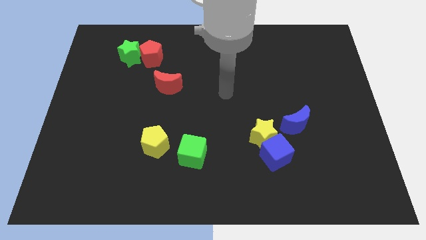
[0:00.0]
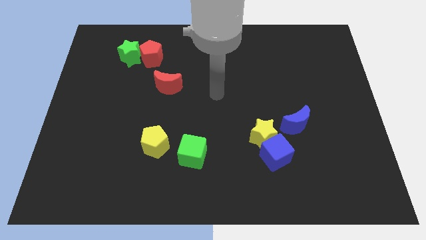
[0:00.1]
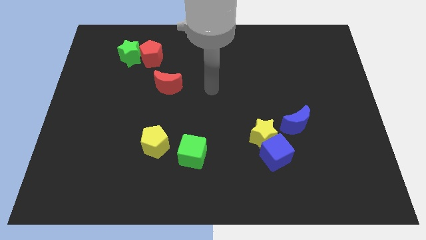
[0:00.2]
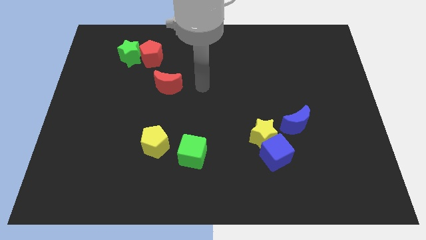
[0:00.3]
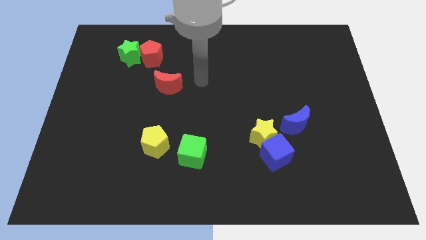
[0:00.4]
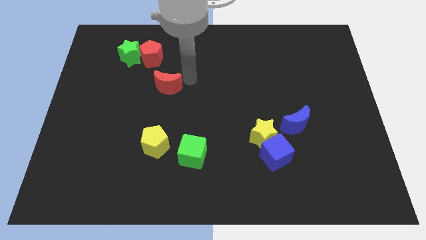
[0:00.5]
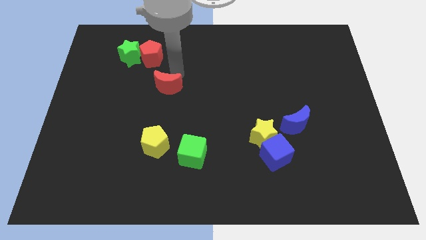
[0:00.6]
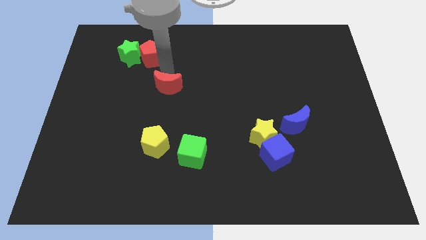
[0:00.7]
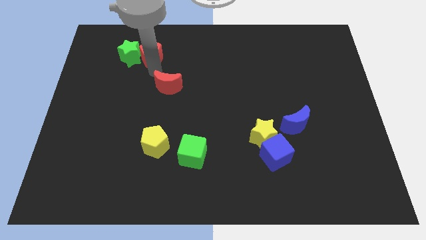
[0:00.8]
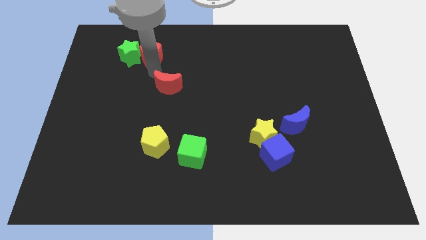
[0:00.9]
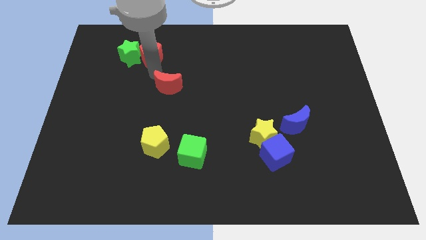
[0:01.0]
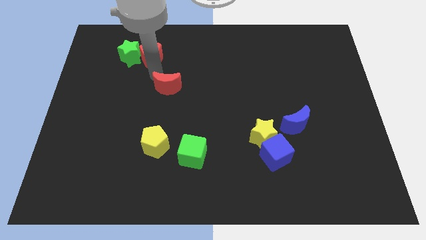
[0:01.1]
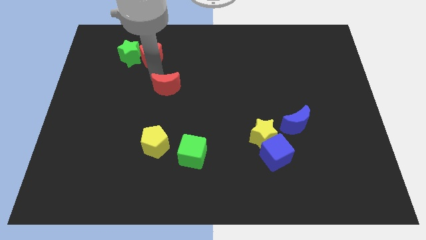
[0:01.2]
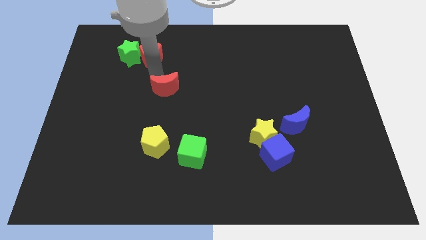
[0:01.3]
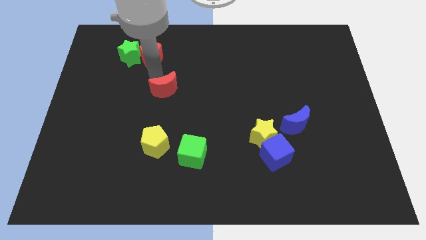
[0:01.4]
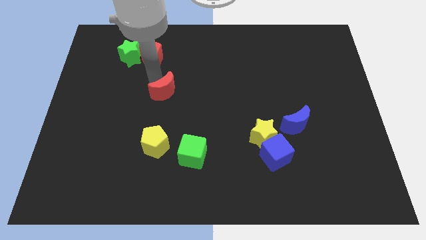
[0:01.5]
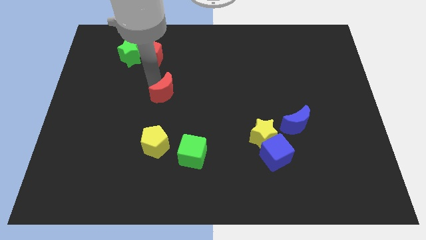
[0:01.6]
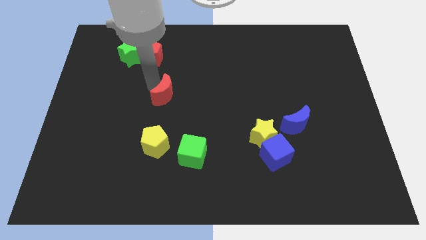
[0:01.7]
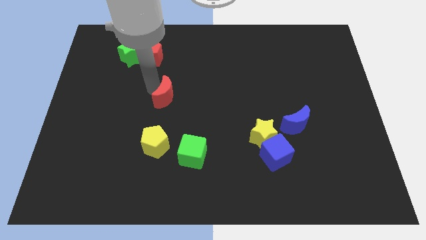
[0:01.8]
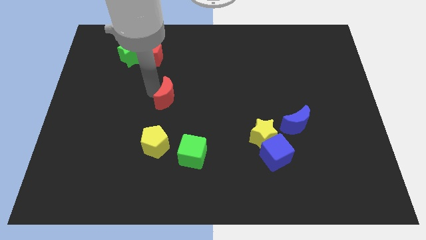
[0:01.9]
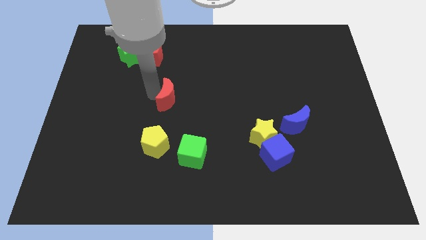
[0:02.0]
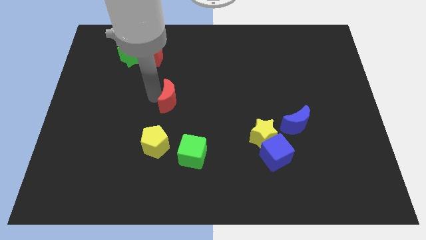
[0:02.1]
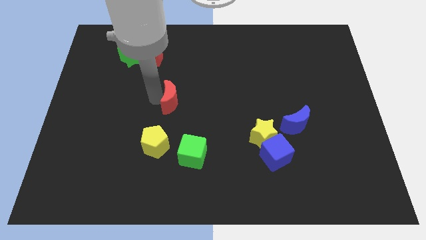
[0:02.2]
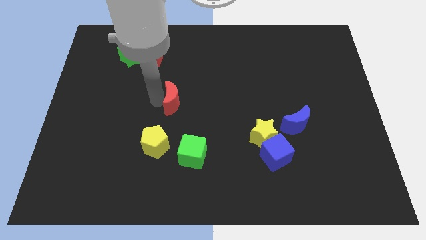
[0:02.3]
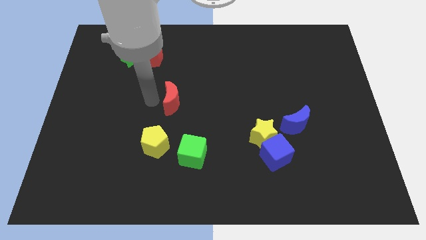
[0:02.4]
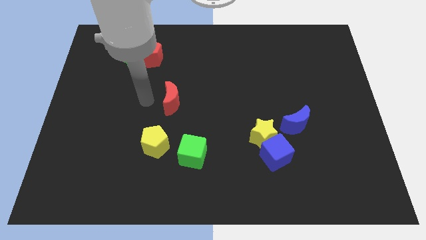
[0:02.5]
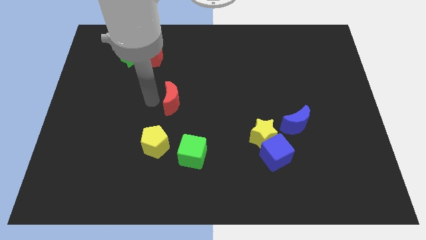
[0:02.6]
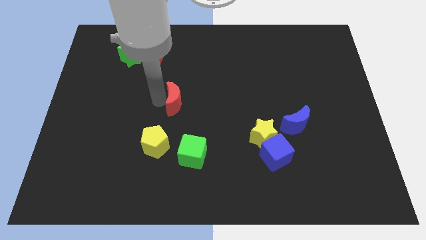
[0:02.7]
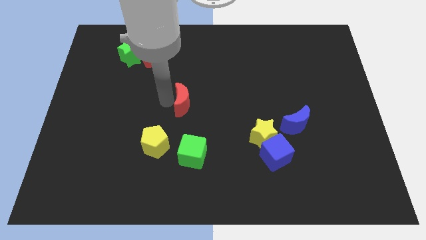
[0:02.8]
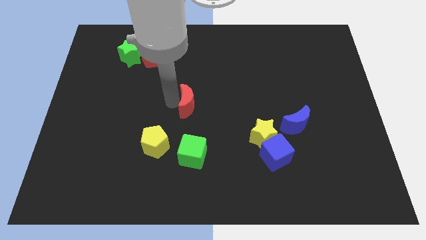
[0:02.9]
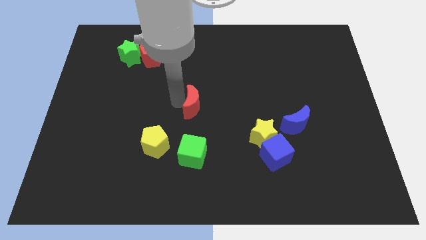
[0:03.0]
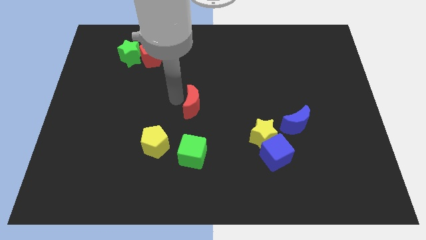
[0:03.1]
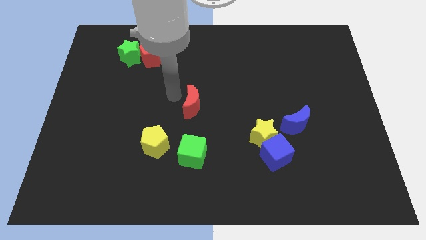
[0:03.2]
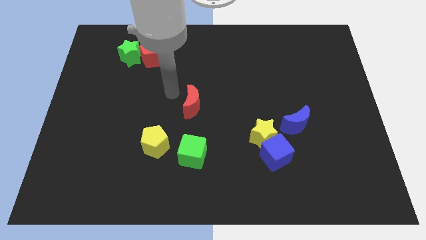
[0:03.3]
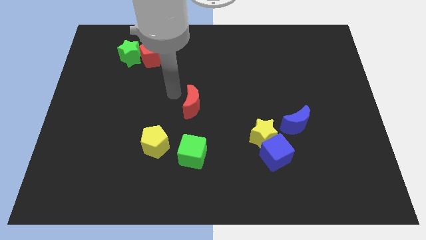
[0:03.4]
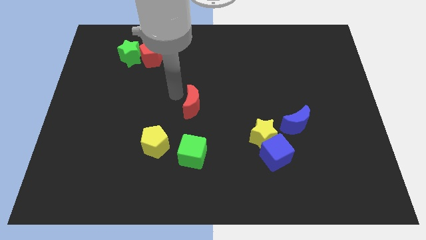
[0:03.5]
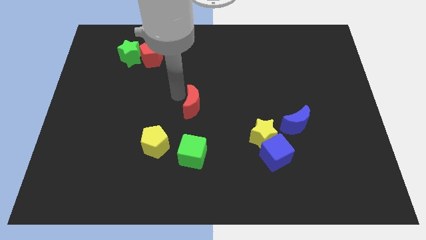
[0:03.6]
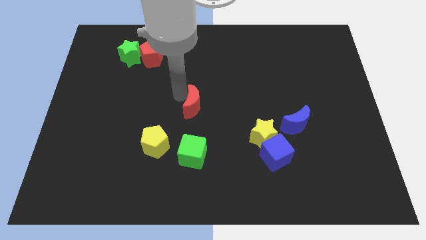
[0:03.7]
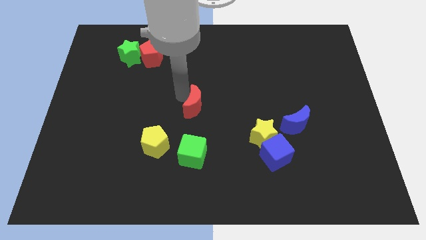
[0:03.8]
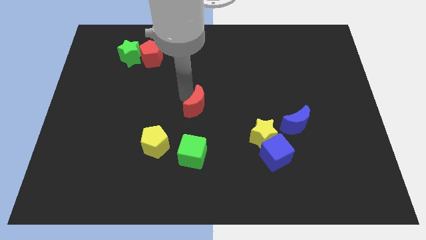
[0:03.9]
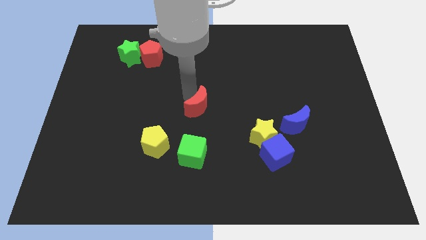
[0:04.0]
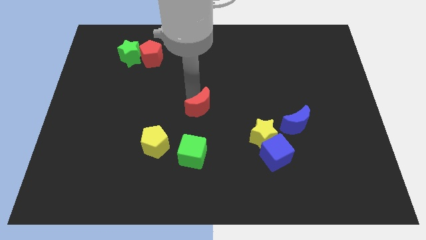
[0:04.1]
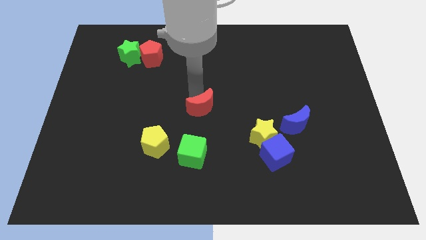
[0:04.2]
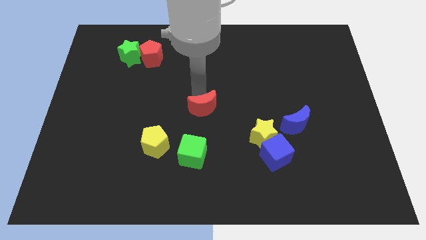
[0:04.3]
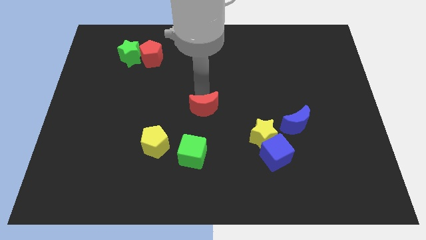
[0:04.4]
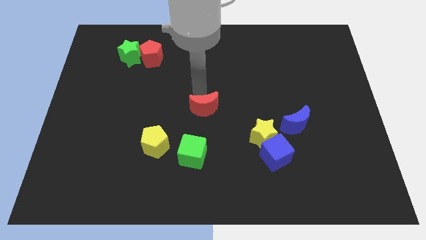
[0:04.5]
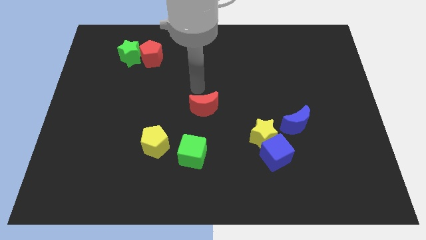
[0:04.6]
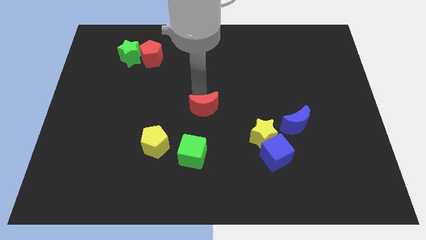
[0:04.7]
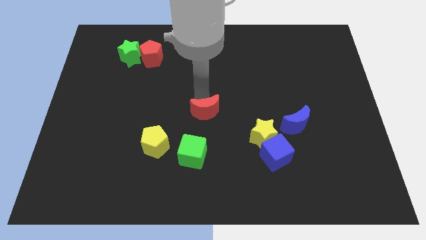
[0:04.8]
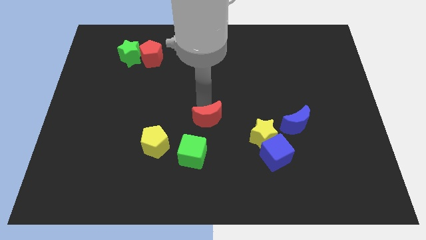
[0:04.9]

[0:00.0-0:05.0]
put the red moon to the left of the yellow star

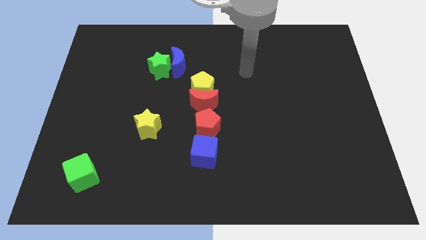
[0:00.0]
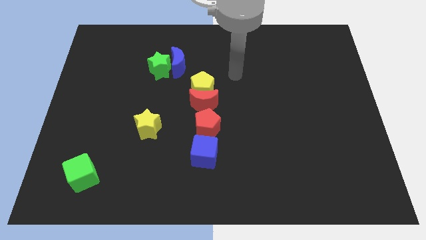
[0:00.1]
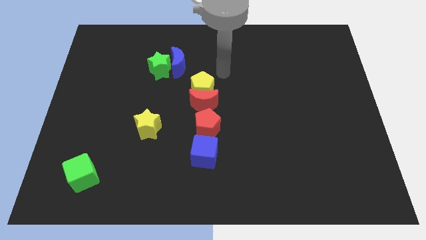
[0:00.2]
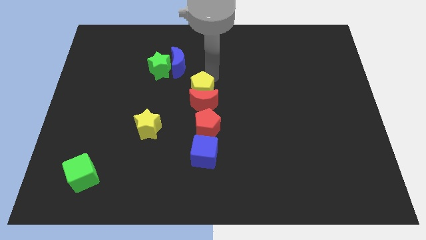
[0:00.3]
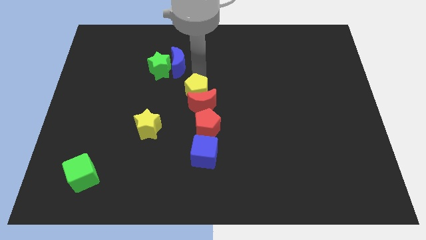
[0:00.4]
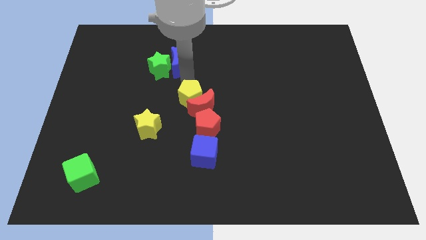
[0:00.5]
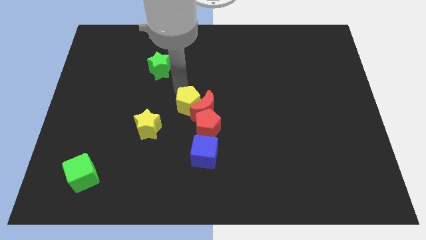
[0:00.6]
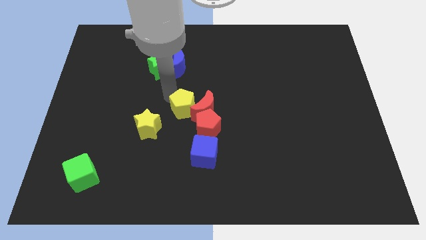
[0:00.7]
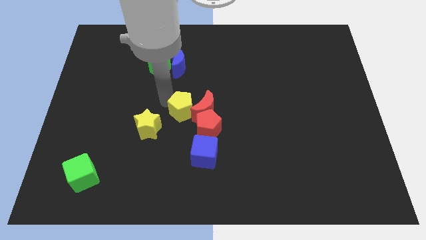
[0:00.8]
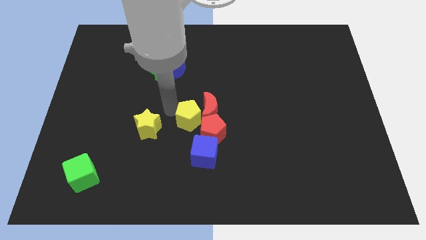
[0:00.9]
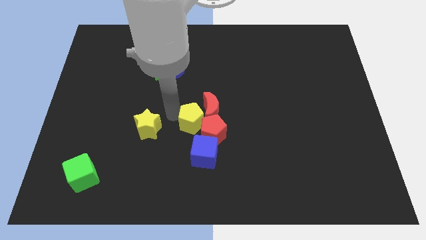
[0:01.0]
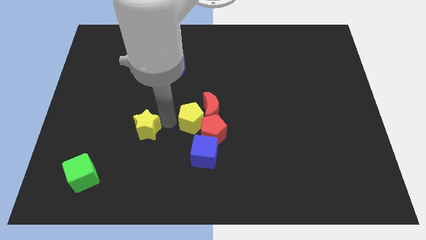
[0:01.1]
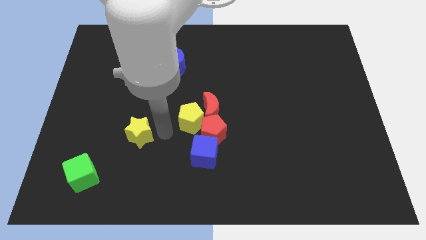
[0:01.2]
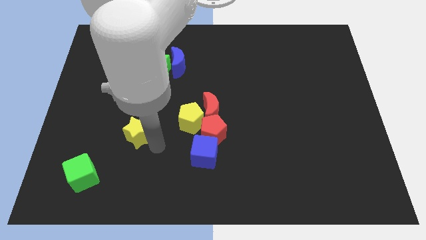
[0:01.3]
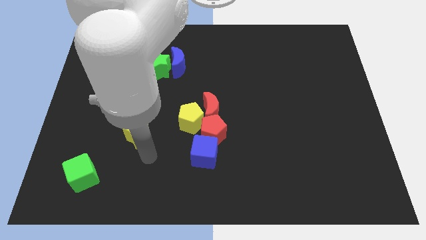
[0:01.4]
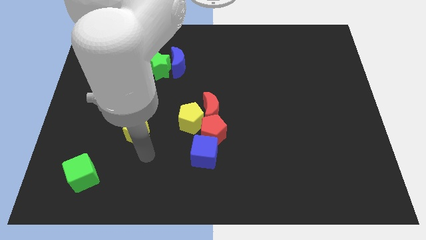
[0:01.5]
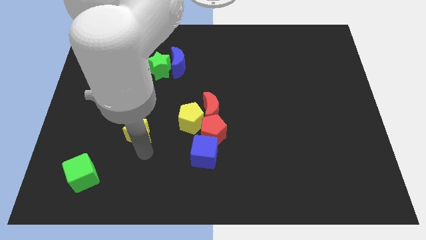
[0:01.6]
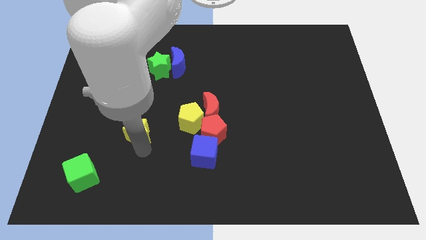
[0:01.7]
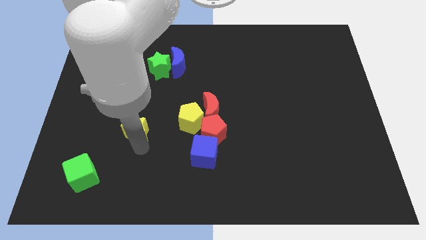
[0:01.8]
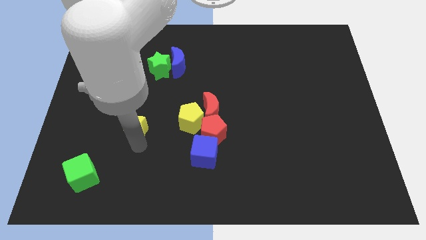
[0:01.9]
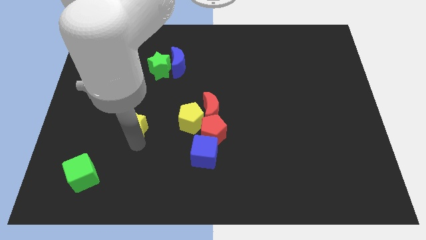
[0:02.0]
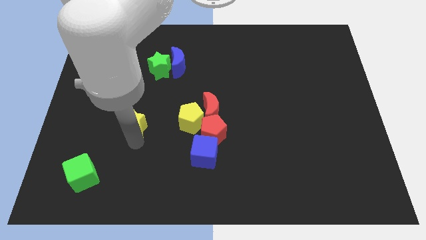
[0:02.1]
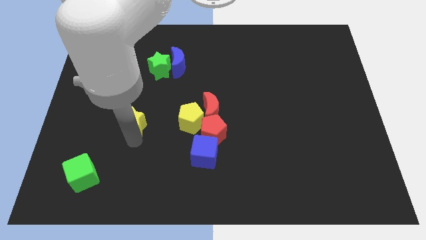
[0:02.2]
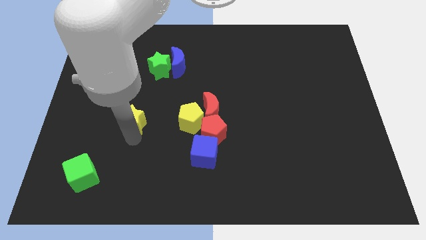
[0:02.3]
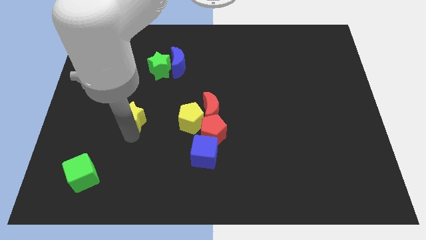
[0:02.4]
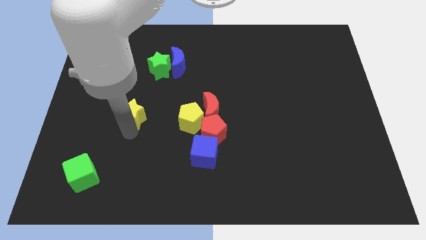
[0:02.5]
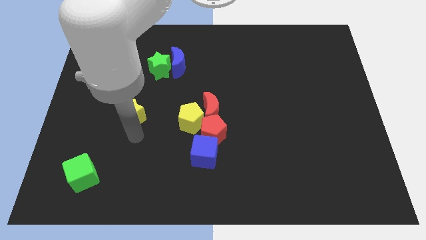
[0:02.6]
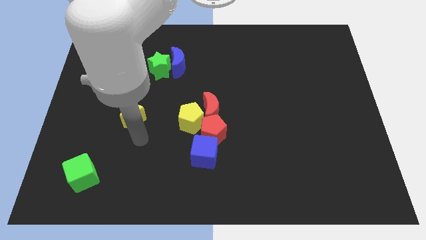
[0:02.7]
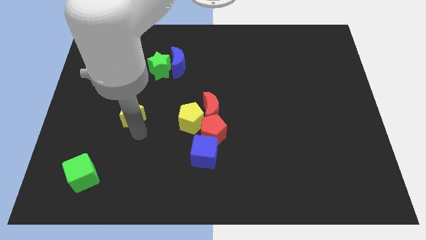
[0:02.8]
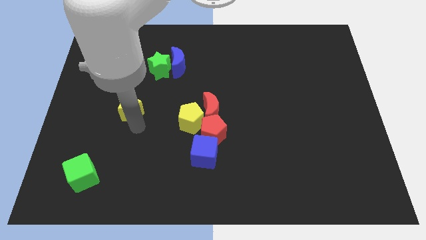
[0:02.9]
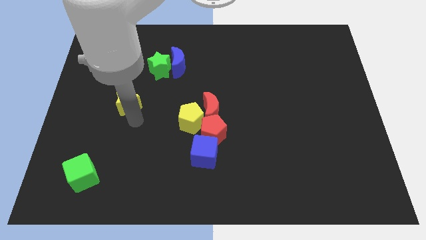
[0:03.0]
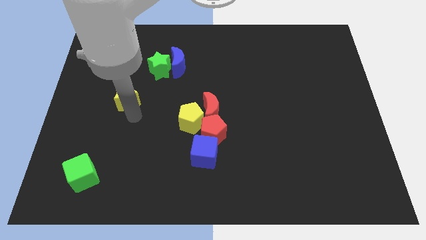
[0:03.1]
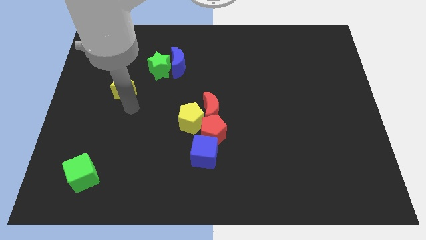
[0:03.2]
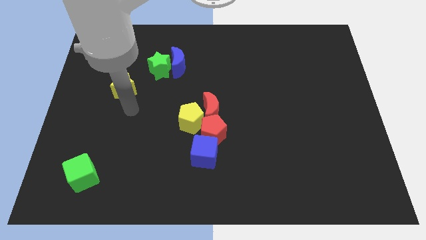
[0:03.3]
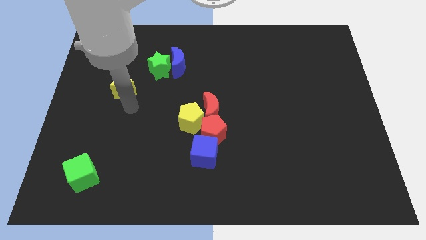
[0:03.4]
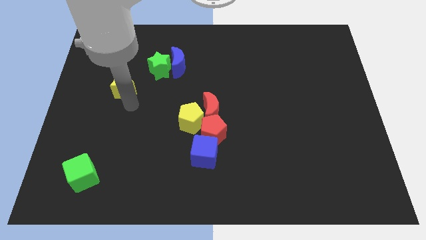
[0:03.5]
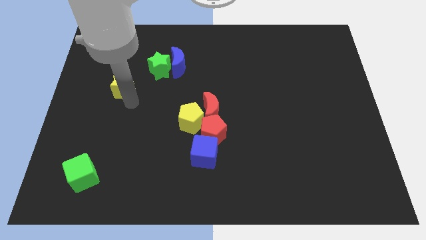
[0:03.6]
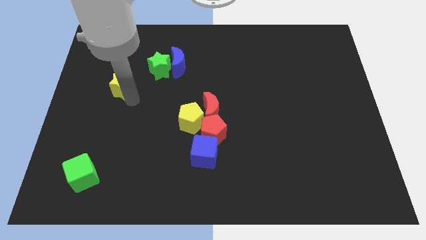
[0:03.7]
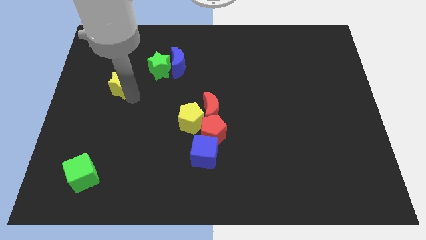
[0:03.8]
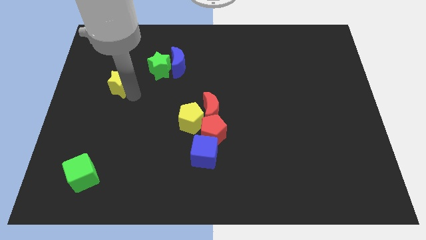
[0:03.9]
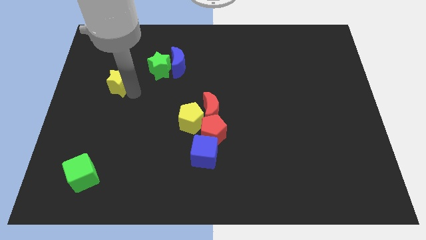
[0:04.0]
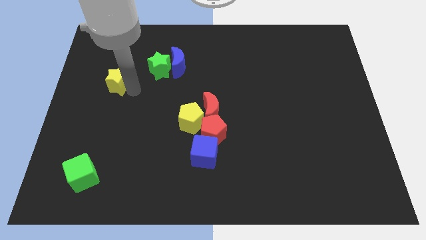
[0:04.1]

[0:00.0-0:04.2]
put the yellow star left of the green star
